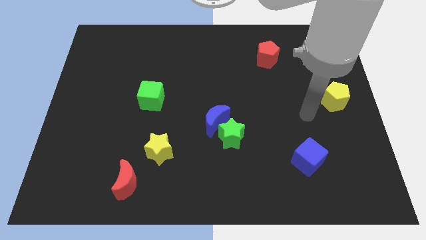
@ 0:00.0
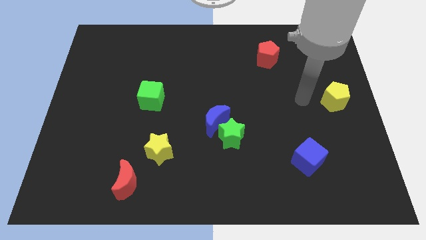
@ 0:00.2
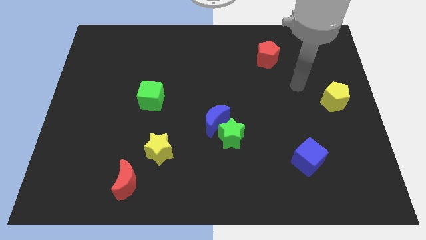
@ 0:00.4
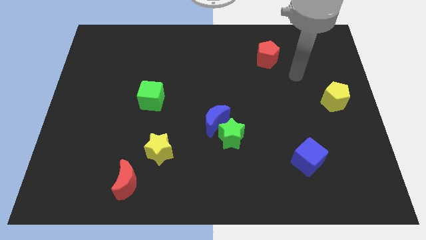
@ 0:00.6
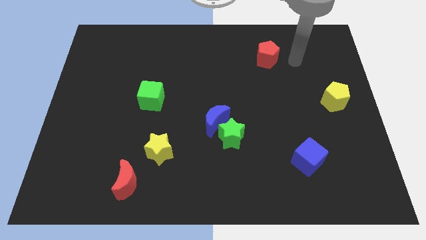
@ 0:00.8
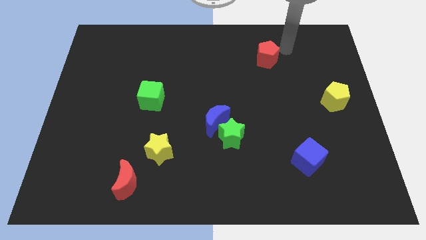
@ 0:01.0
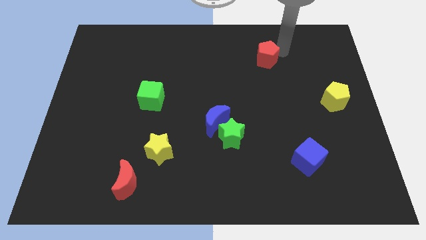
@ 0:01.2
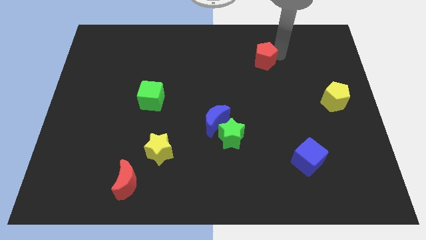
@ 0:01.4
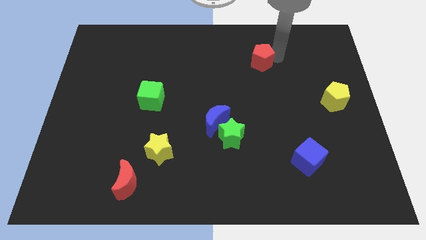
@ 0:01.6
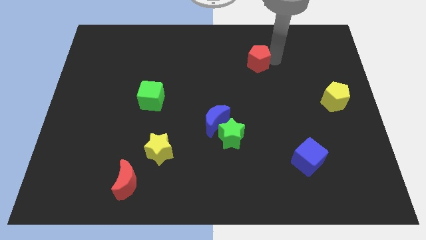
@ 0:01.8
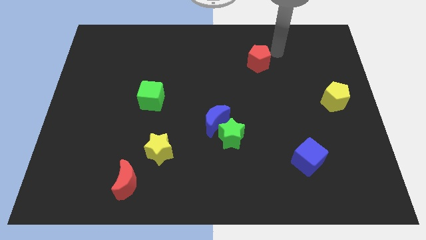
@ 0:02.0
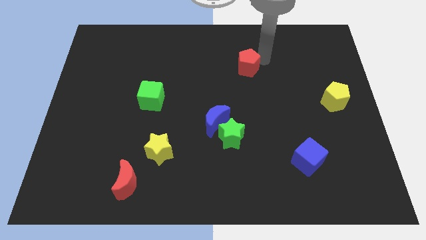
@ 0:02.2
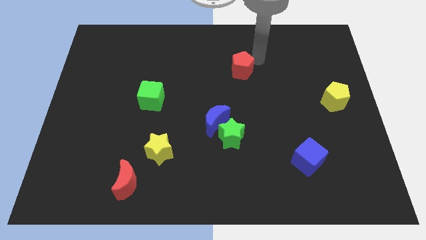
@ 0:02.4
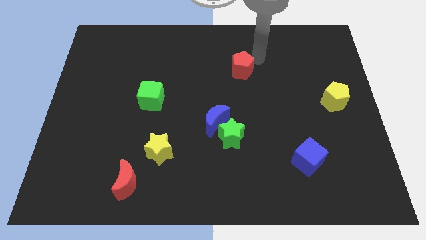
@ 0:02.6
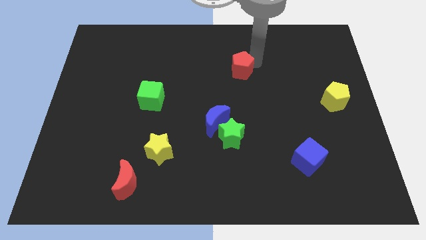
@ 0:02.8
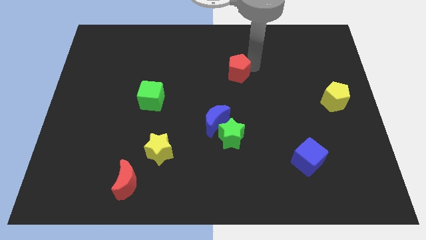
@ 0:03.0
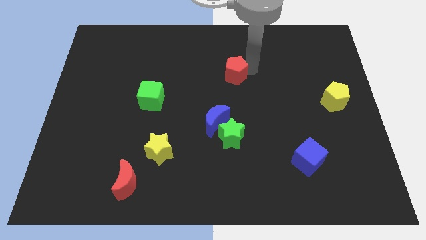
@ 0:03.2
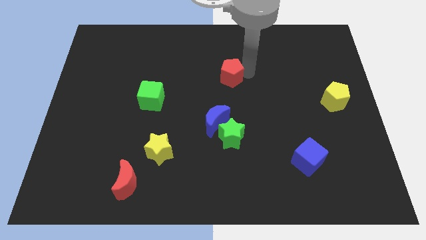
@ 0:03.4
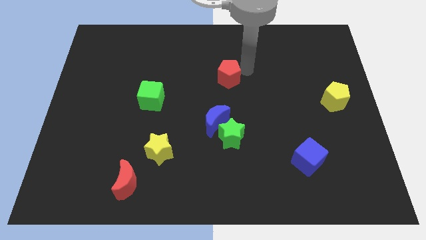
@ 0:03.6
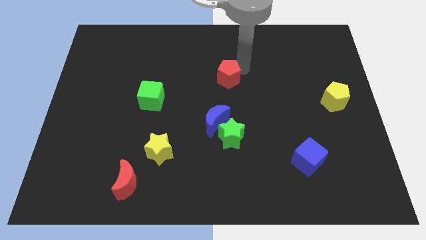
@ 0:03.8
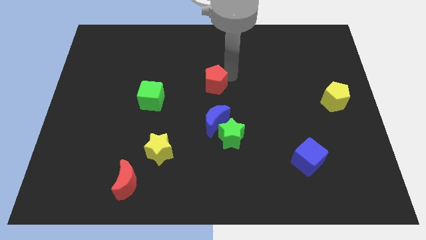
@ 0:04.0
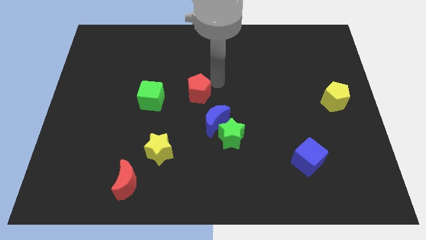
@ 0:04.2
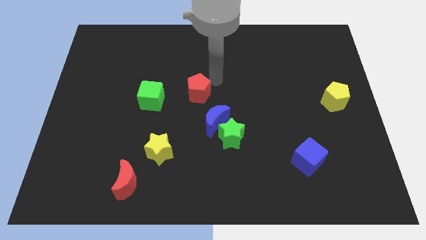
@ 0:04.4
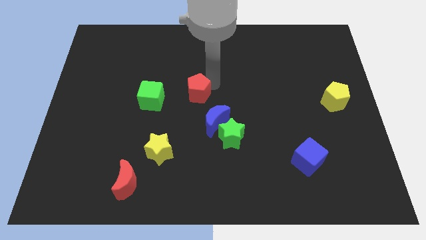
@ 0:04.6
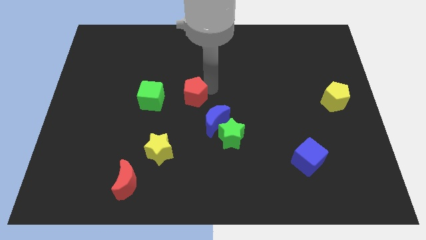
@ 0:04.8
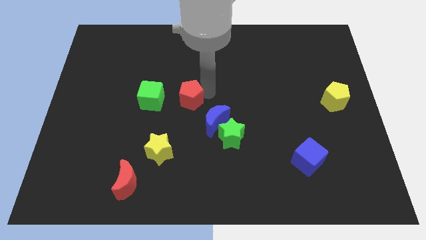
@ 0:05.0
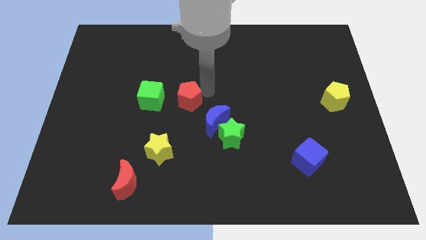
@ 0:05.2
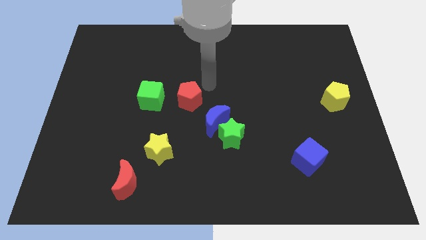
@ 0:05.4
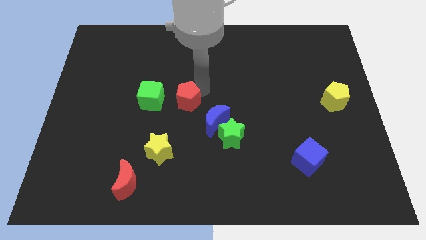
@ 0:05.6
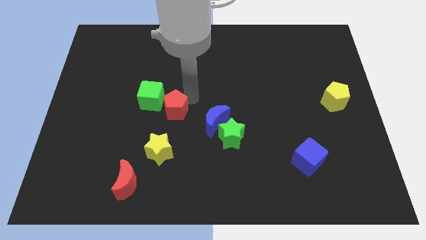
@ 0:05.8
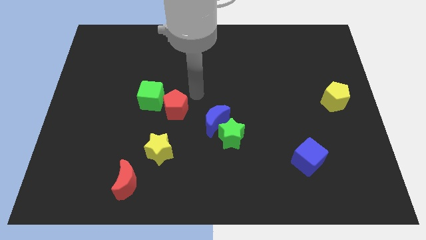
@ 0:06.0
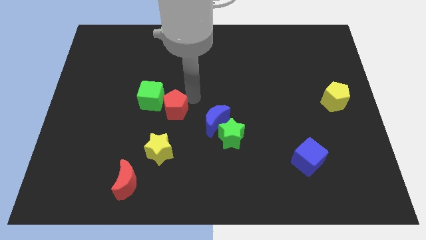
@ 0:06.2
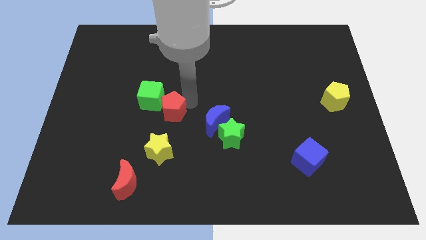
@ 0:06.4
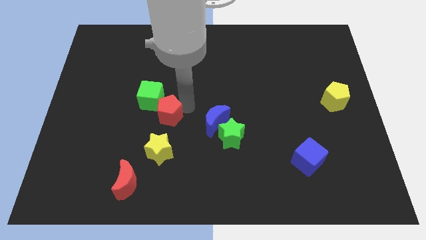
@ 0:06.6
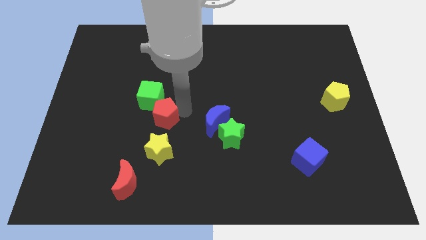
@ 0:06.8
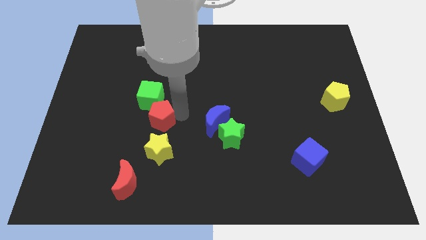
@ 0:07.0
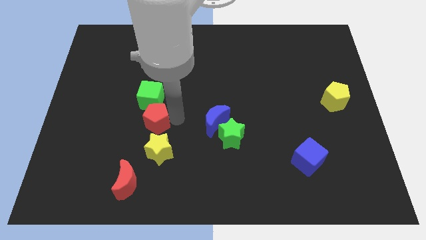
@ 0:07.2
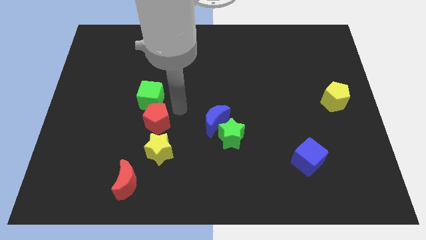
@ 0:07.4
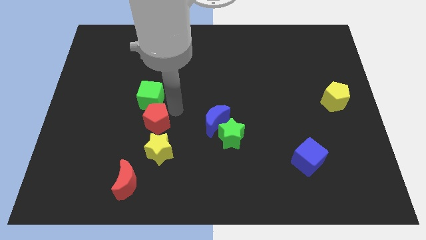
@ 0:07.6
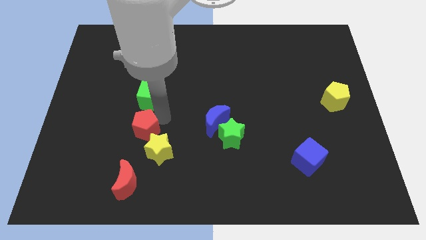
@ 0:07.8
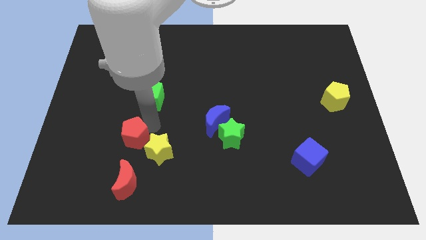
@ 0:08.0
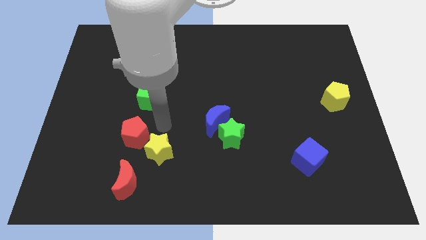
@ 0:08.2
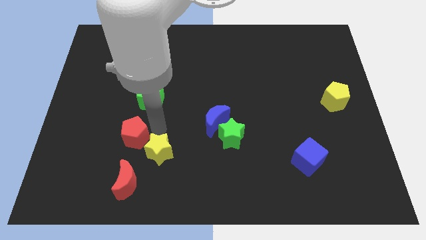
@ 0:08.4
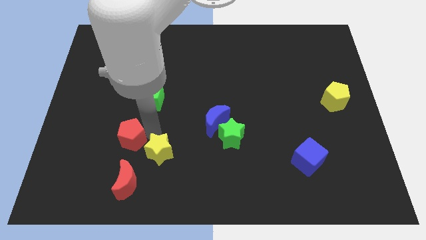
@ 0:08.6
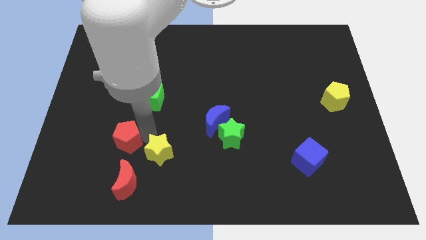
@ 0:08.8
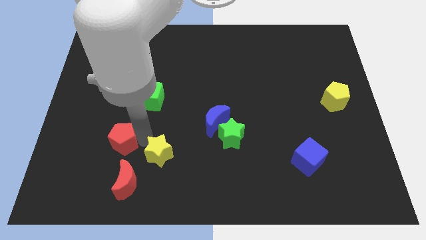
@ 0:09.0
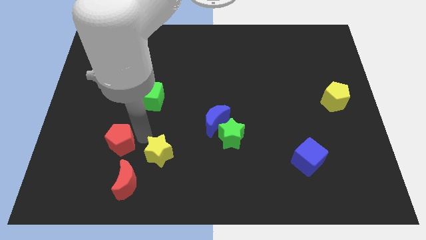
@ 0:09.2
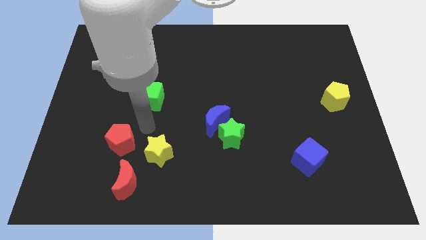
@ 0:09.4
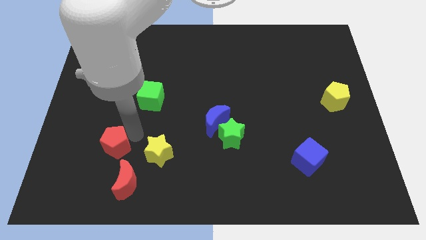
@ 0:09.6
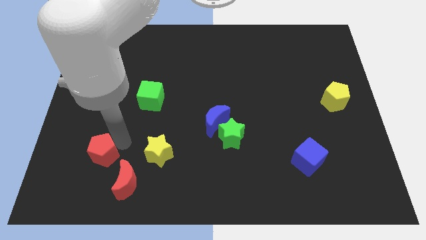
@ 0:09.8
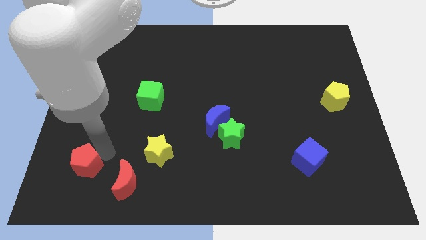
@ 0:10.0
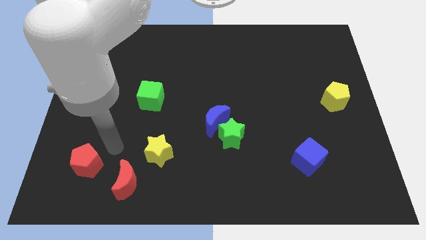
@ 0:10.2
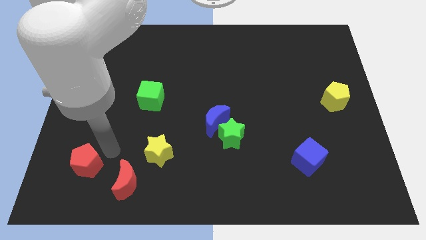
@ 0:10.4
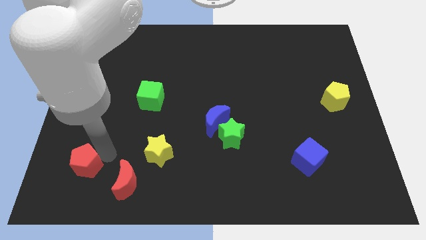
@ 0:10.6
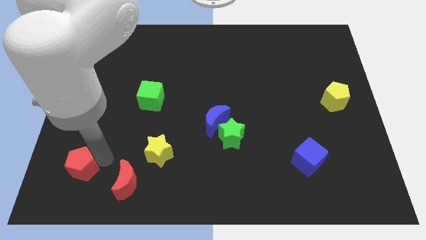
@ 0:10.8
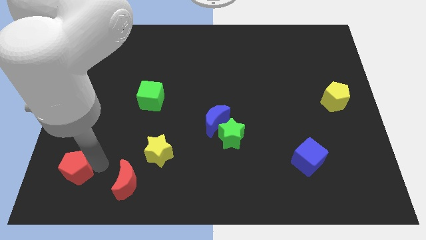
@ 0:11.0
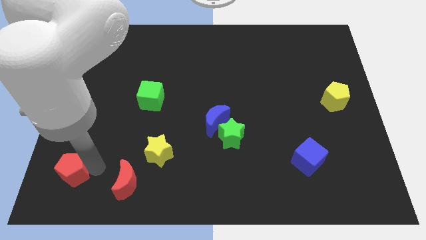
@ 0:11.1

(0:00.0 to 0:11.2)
move the red pentagon to the bottom left of the board
